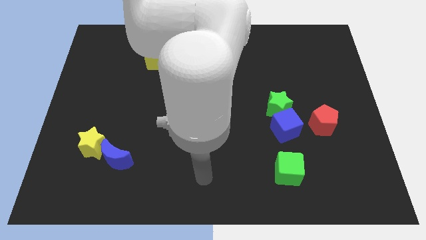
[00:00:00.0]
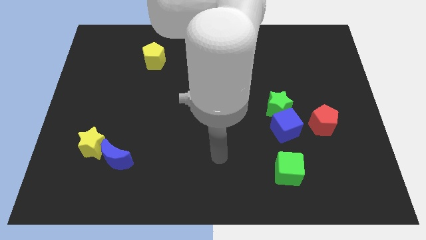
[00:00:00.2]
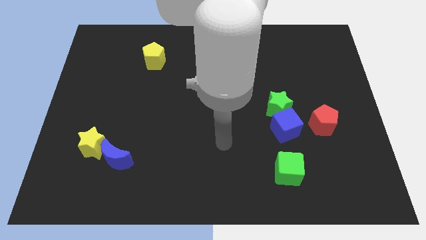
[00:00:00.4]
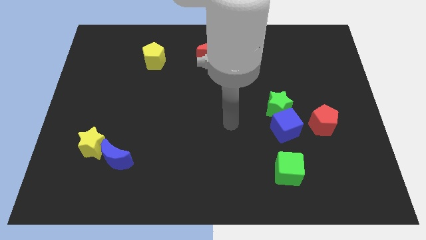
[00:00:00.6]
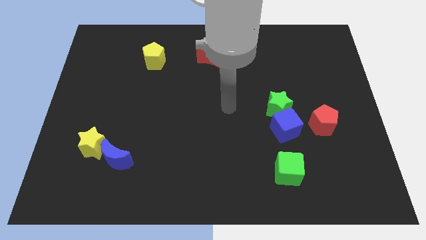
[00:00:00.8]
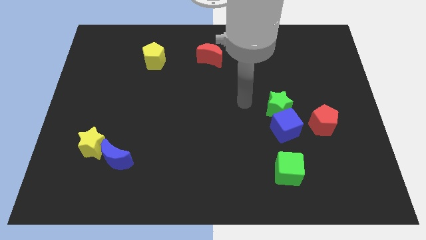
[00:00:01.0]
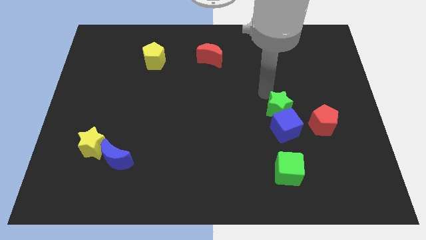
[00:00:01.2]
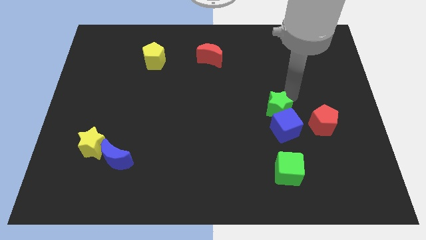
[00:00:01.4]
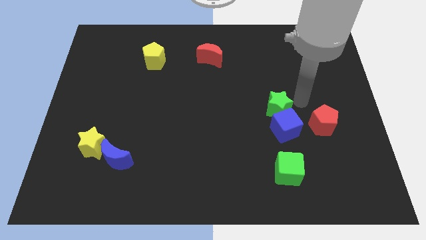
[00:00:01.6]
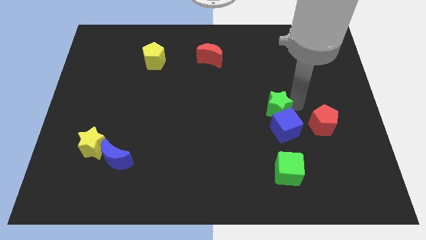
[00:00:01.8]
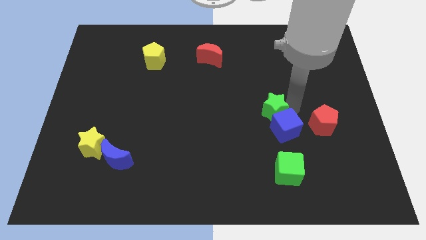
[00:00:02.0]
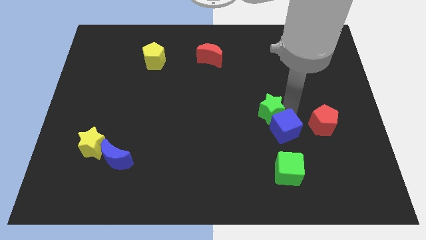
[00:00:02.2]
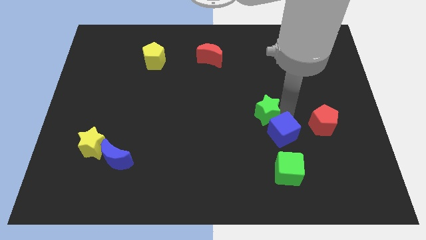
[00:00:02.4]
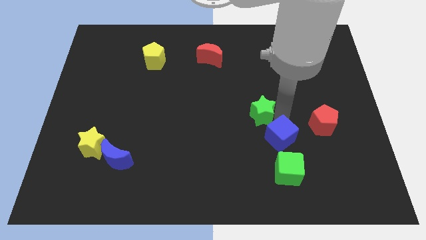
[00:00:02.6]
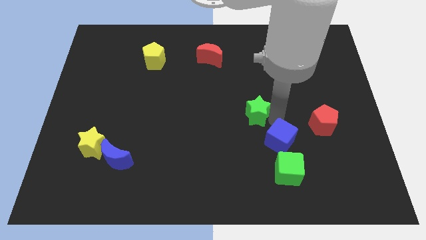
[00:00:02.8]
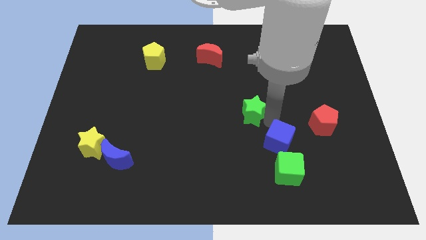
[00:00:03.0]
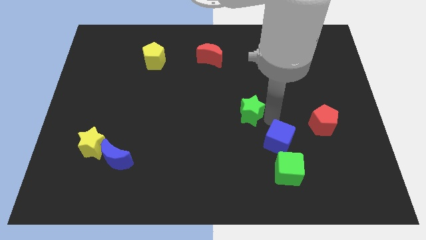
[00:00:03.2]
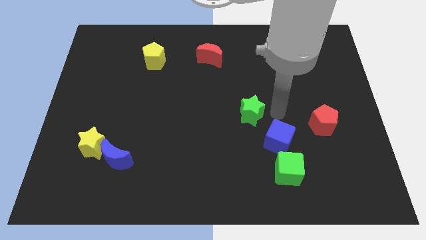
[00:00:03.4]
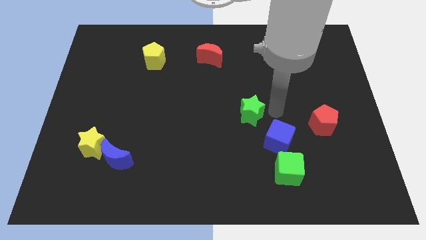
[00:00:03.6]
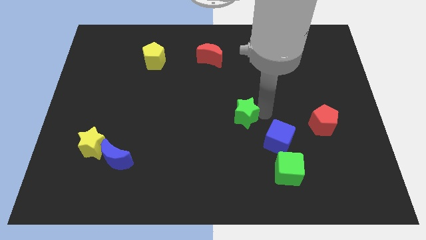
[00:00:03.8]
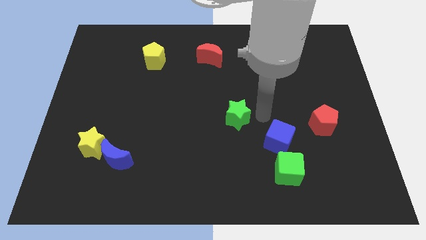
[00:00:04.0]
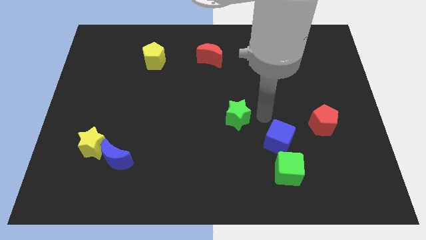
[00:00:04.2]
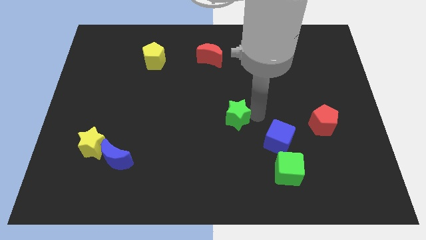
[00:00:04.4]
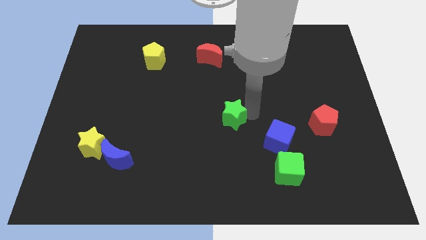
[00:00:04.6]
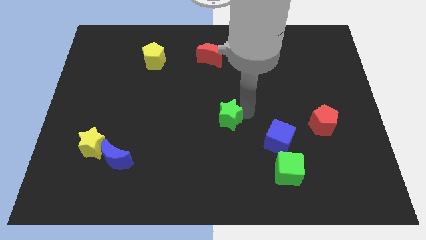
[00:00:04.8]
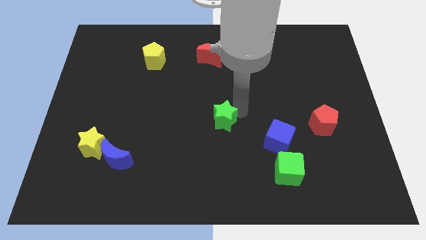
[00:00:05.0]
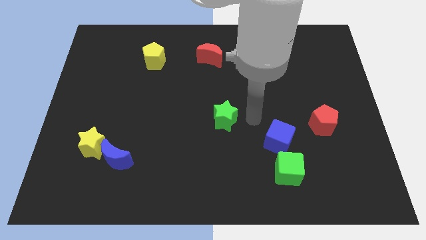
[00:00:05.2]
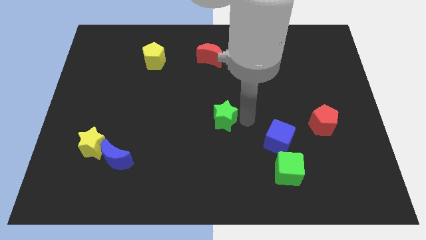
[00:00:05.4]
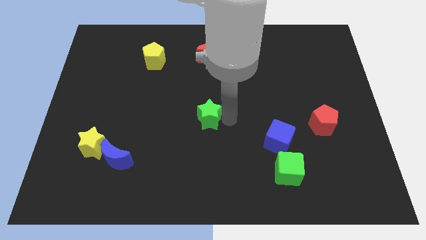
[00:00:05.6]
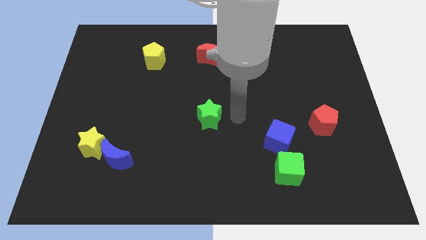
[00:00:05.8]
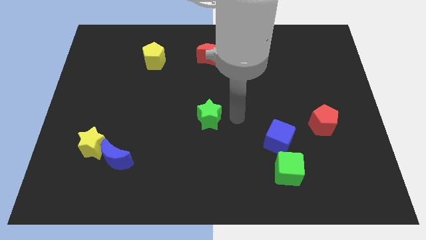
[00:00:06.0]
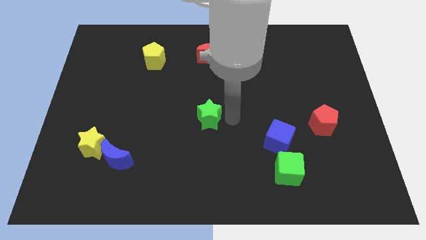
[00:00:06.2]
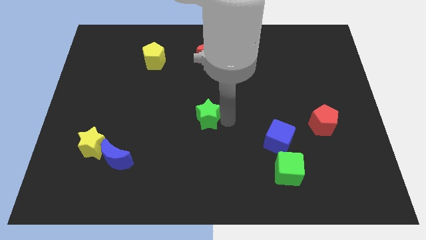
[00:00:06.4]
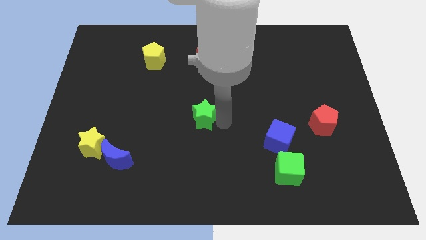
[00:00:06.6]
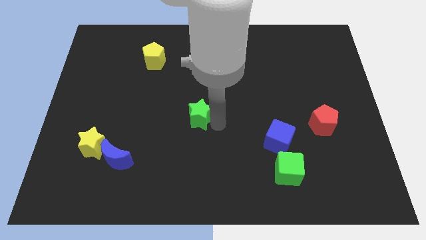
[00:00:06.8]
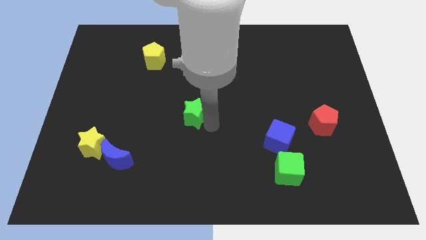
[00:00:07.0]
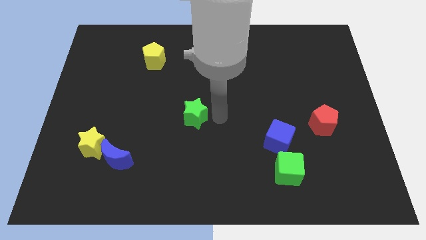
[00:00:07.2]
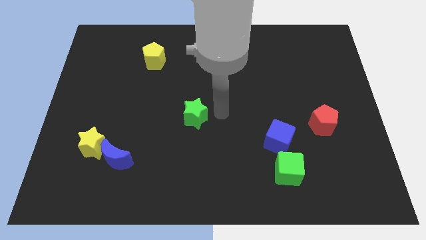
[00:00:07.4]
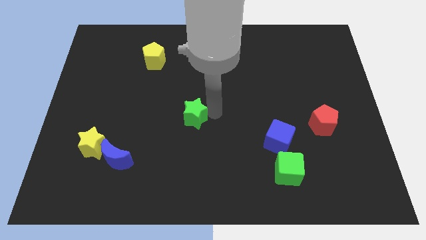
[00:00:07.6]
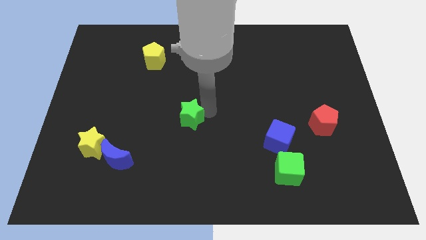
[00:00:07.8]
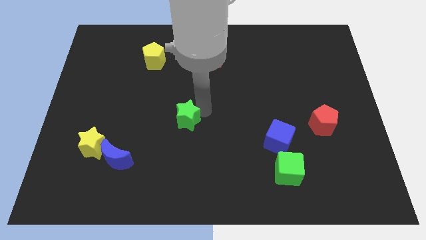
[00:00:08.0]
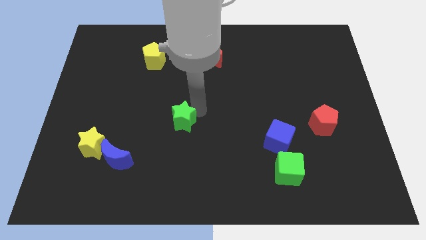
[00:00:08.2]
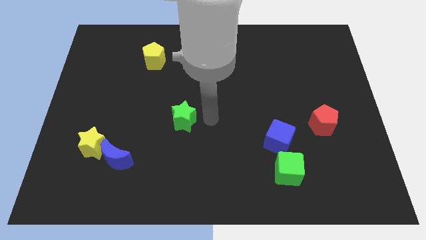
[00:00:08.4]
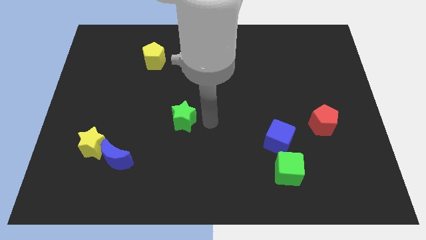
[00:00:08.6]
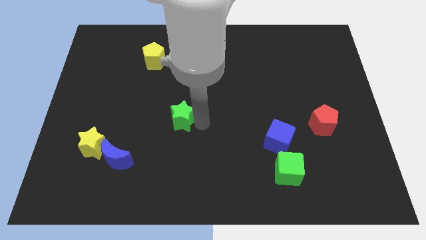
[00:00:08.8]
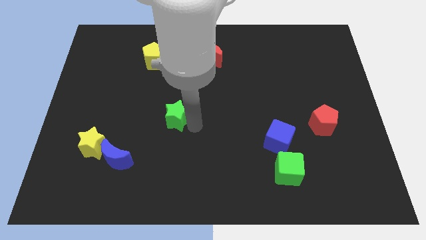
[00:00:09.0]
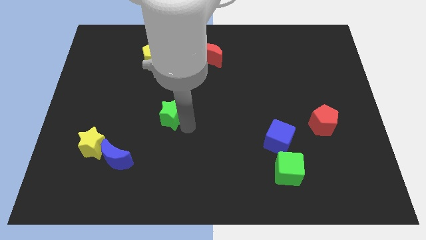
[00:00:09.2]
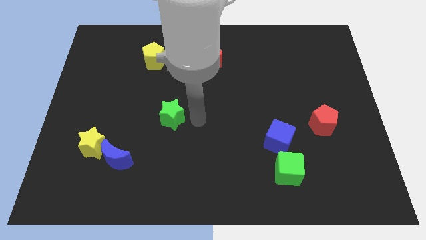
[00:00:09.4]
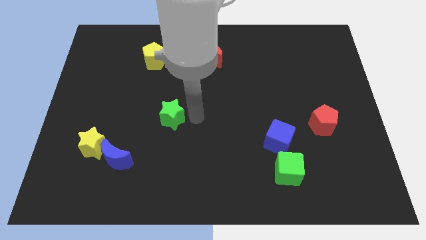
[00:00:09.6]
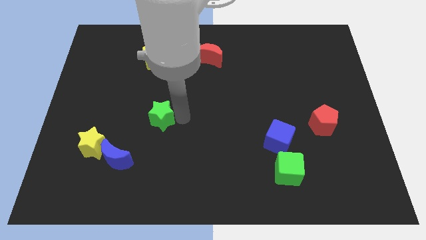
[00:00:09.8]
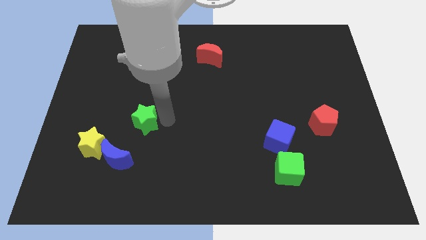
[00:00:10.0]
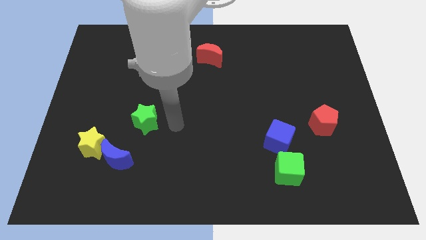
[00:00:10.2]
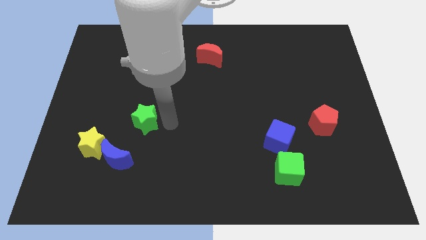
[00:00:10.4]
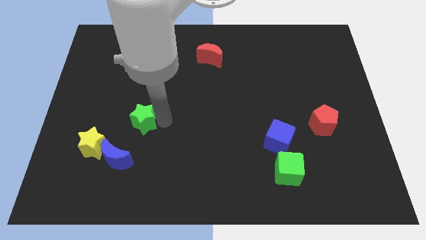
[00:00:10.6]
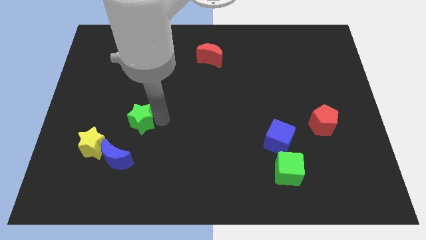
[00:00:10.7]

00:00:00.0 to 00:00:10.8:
put the green star to the top side of the blue moon

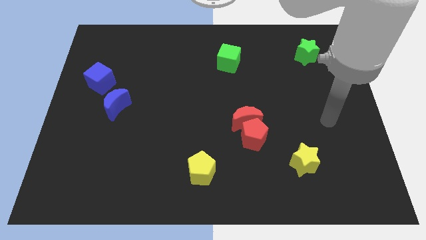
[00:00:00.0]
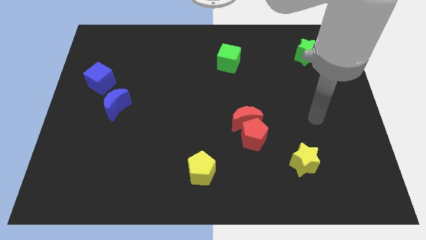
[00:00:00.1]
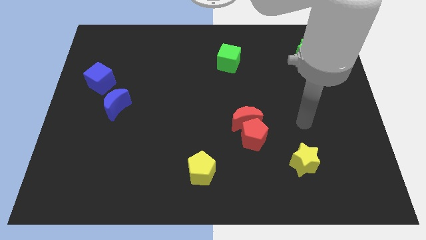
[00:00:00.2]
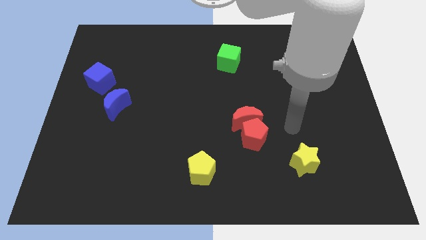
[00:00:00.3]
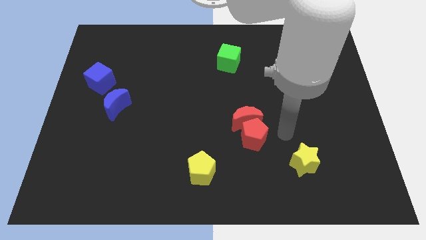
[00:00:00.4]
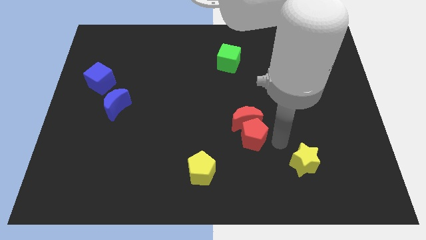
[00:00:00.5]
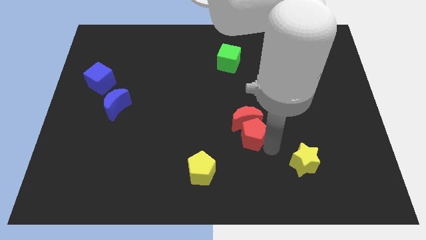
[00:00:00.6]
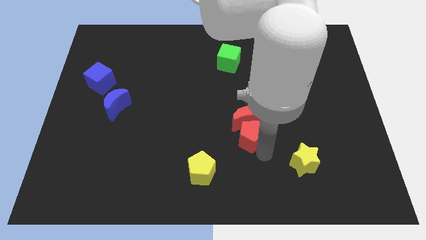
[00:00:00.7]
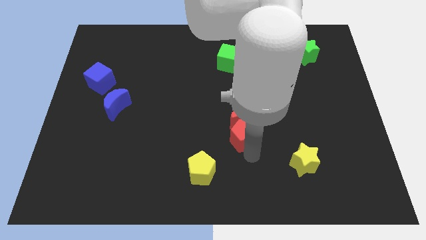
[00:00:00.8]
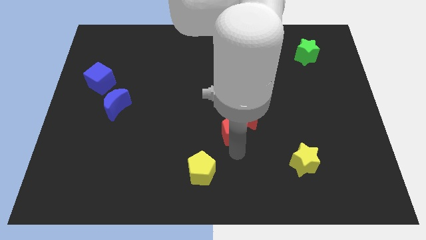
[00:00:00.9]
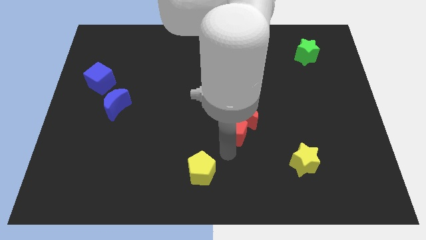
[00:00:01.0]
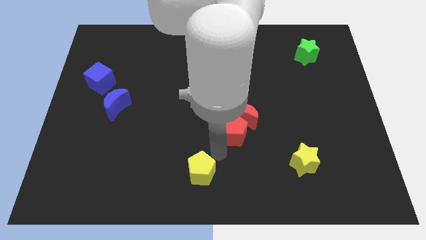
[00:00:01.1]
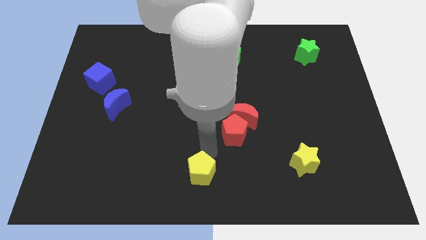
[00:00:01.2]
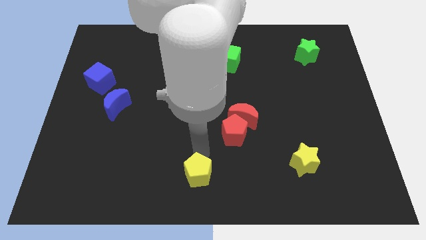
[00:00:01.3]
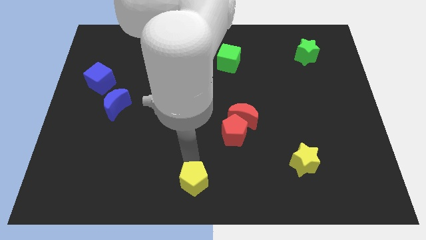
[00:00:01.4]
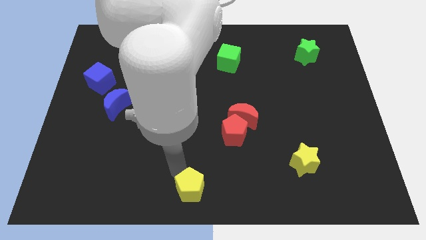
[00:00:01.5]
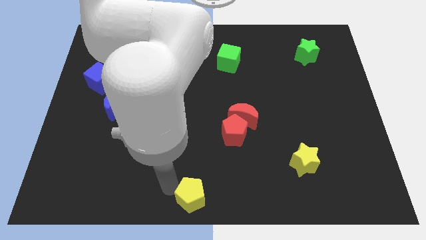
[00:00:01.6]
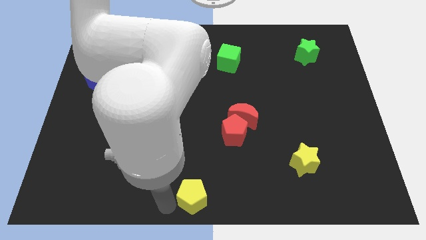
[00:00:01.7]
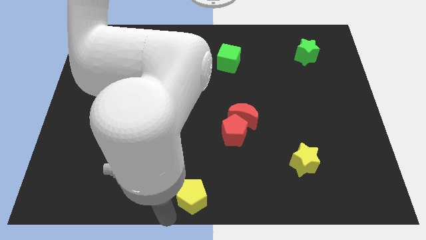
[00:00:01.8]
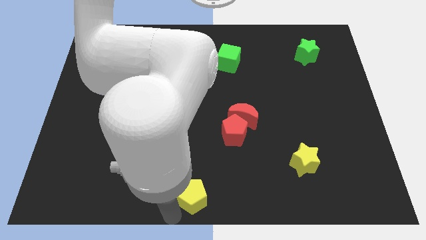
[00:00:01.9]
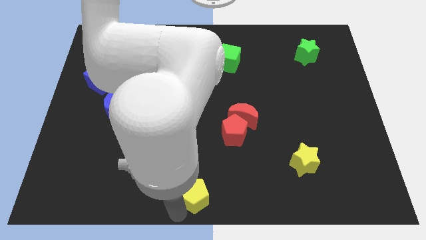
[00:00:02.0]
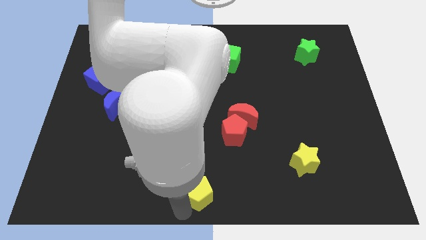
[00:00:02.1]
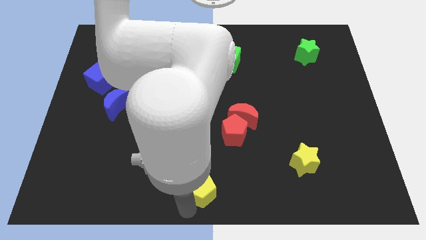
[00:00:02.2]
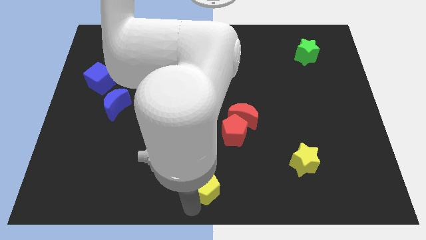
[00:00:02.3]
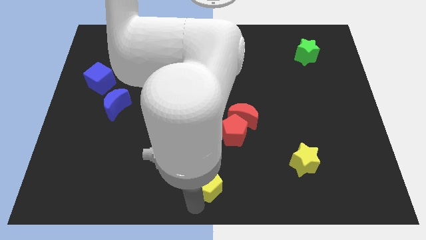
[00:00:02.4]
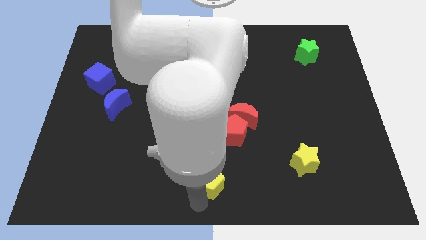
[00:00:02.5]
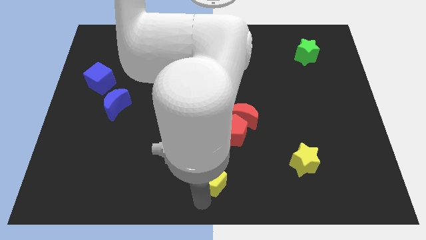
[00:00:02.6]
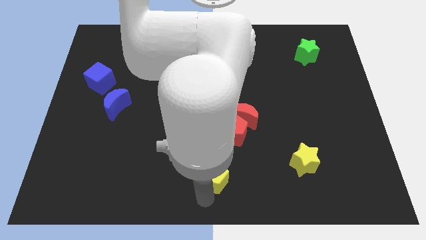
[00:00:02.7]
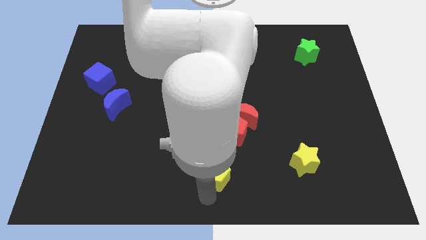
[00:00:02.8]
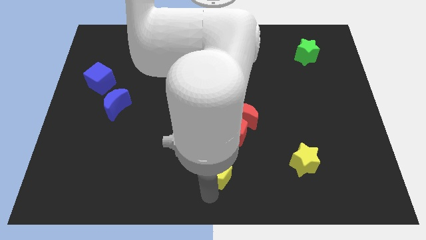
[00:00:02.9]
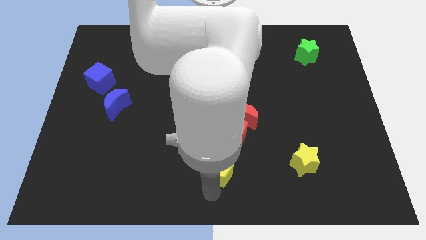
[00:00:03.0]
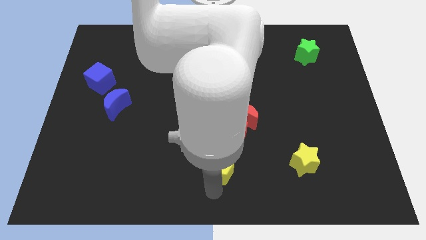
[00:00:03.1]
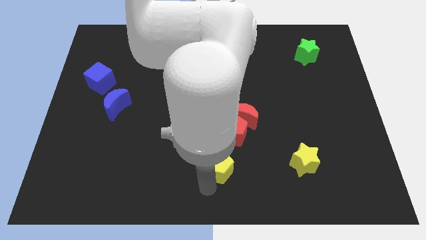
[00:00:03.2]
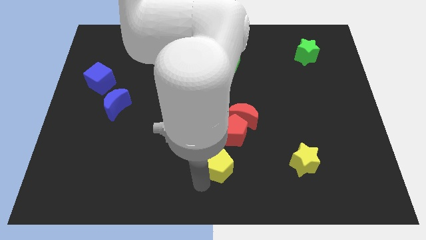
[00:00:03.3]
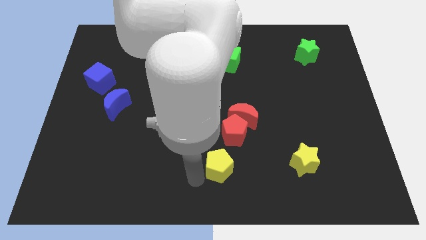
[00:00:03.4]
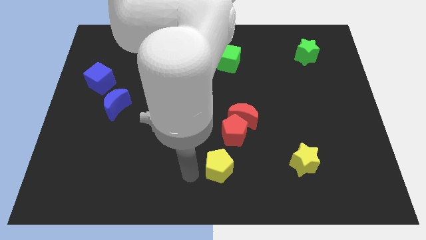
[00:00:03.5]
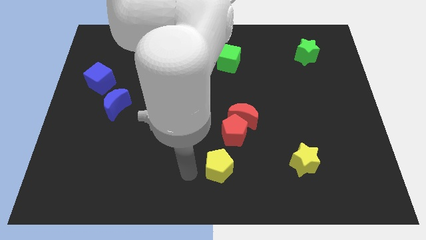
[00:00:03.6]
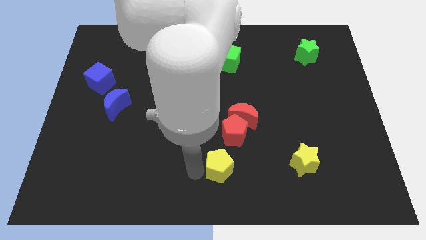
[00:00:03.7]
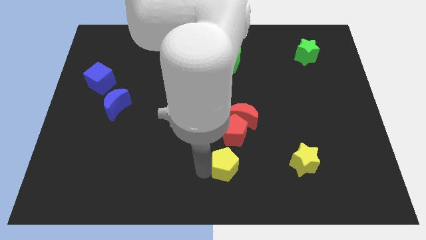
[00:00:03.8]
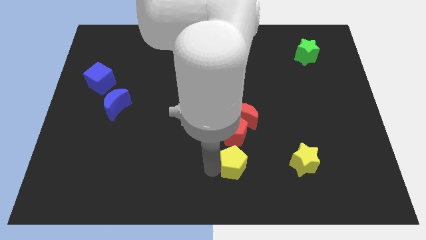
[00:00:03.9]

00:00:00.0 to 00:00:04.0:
put the yellow pentagon just left of the yellow star
